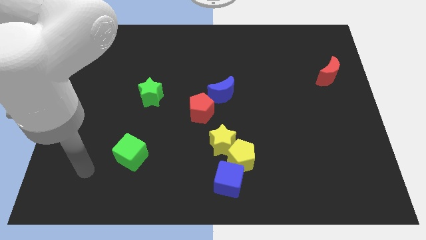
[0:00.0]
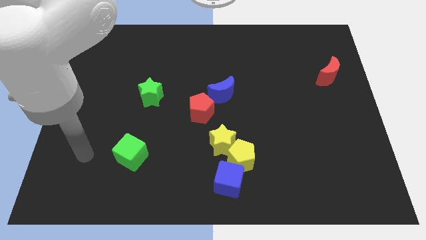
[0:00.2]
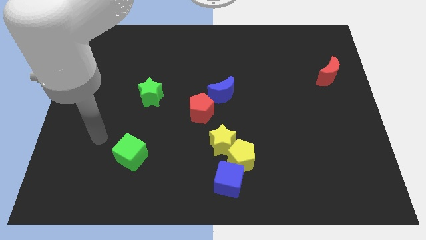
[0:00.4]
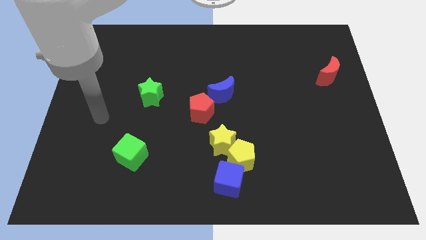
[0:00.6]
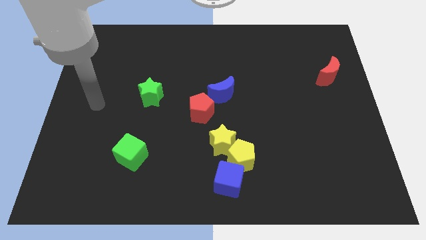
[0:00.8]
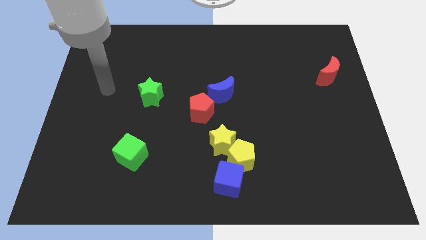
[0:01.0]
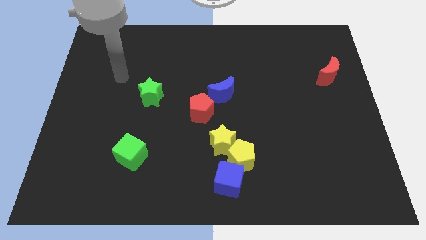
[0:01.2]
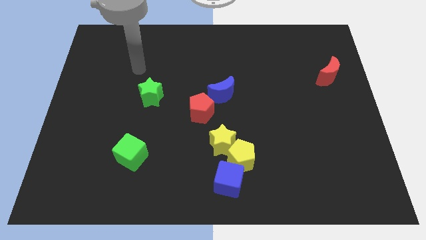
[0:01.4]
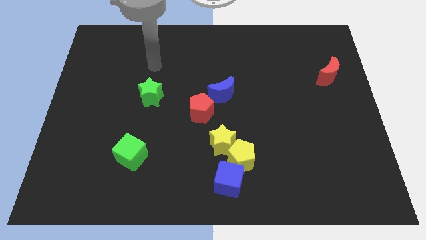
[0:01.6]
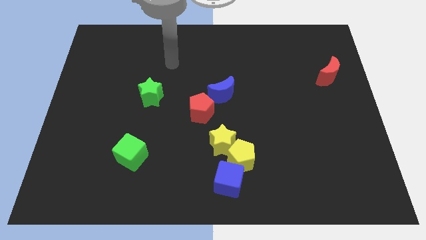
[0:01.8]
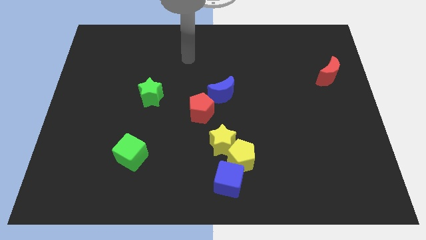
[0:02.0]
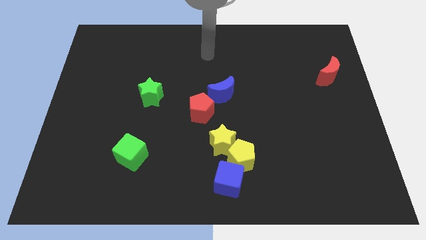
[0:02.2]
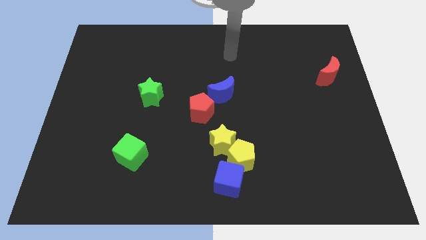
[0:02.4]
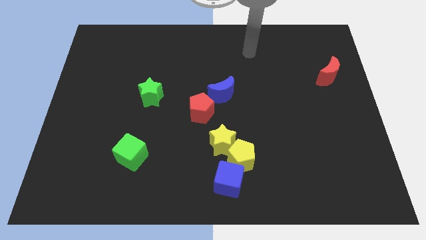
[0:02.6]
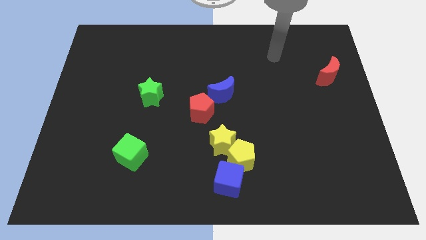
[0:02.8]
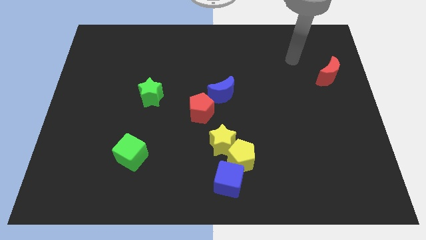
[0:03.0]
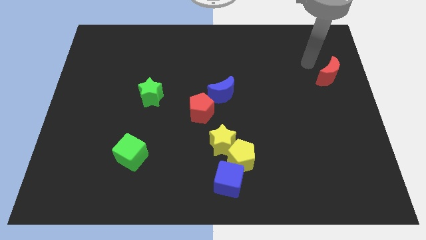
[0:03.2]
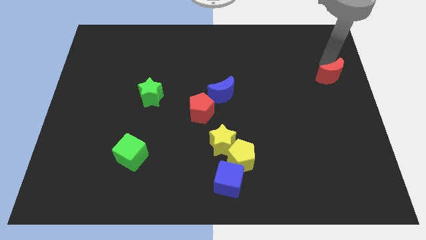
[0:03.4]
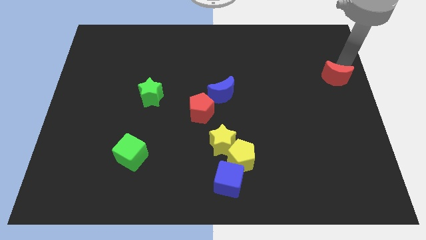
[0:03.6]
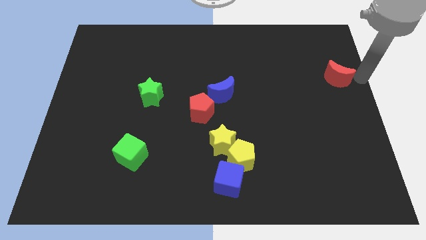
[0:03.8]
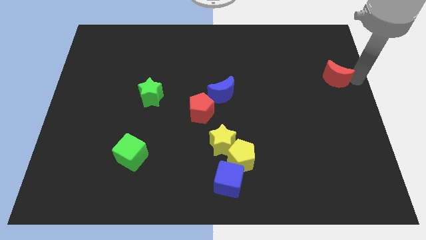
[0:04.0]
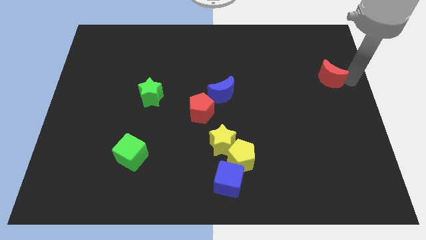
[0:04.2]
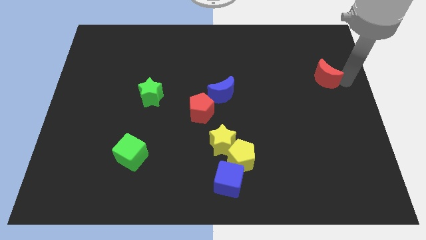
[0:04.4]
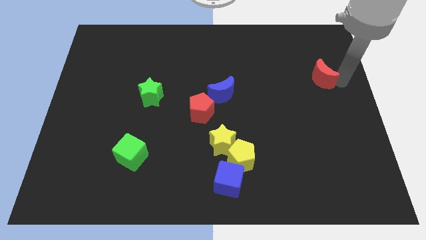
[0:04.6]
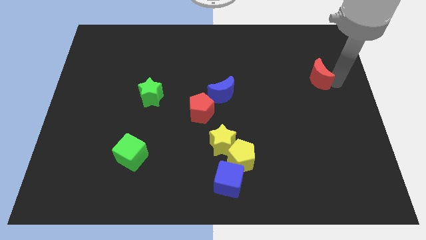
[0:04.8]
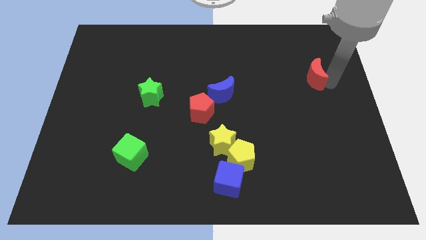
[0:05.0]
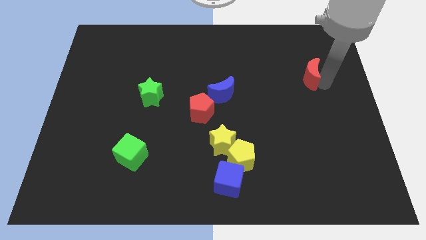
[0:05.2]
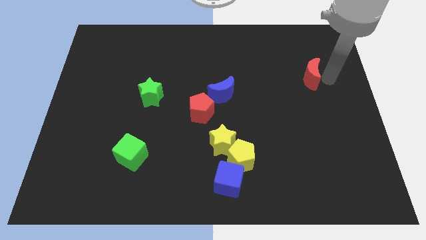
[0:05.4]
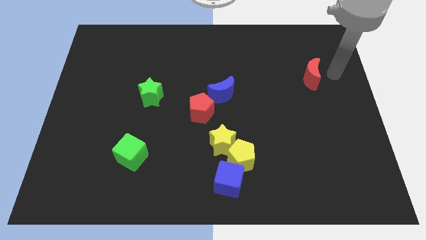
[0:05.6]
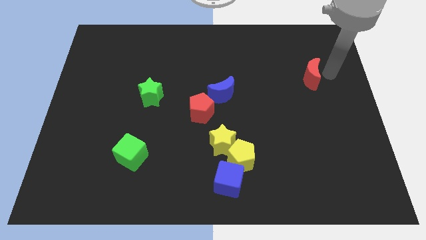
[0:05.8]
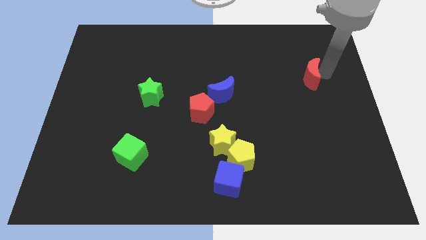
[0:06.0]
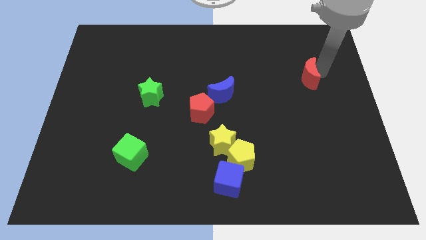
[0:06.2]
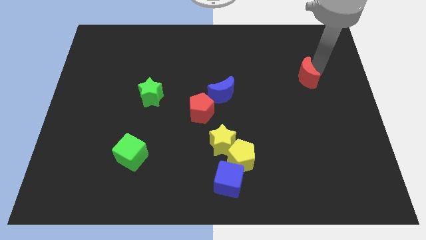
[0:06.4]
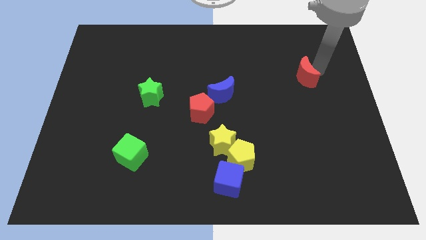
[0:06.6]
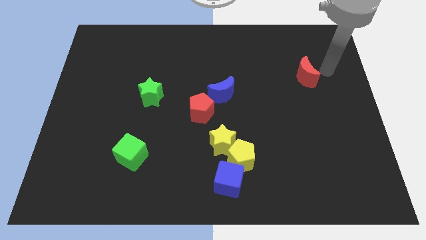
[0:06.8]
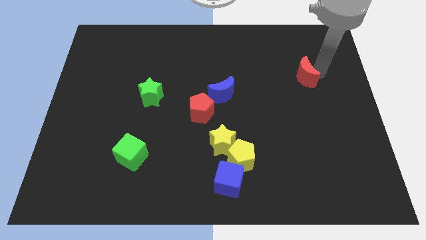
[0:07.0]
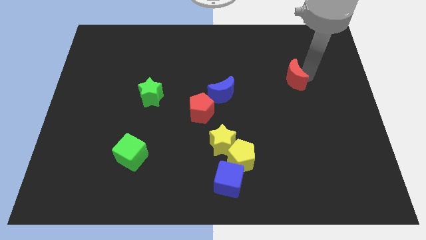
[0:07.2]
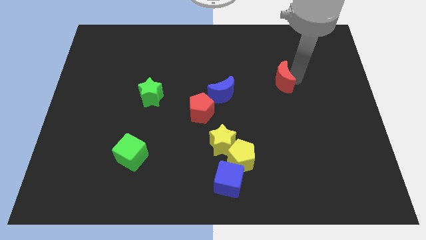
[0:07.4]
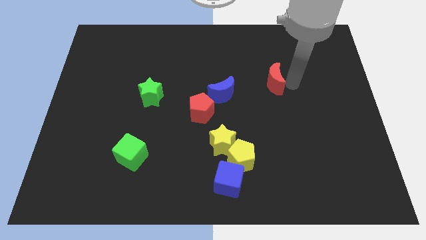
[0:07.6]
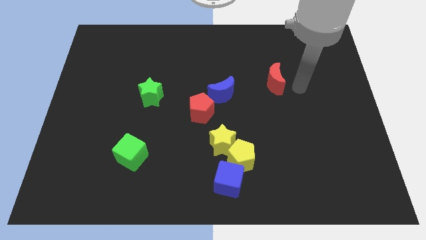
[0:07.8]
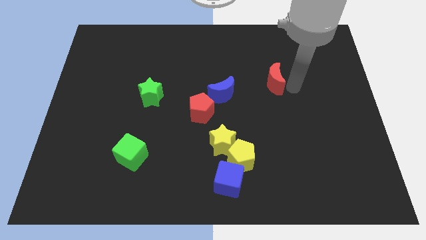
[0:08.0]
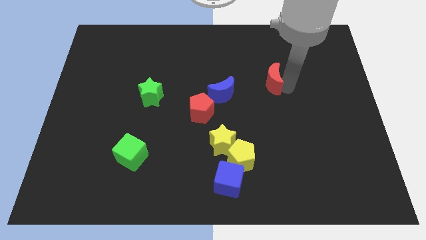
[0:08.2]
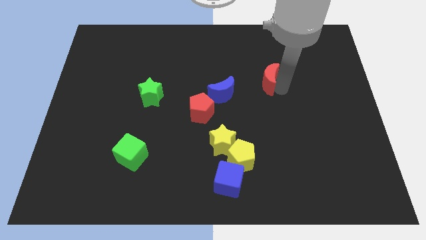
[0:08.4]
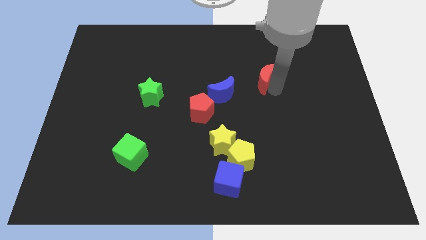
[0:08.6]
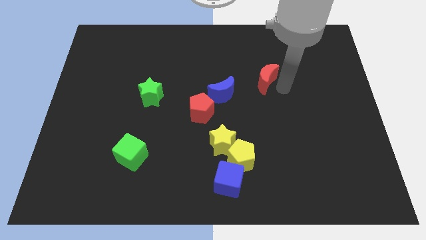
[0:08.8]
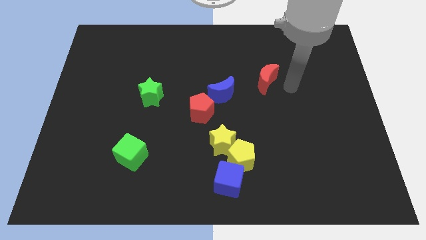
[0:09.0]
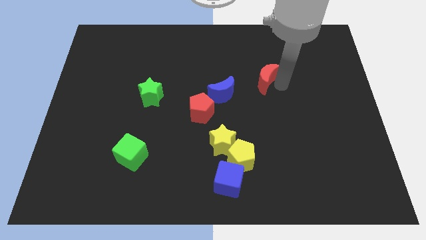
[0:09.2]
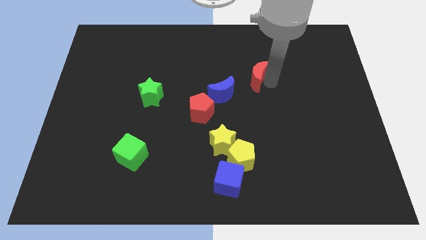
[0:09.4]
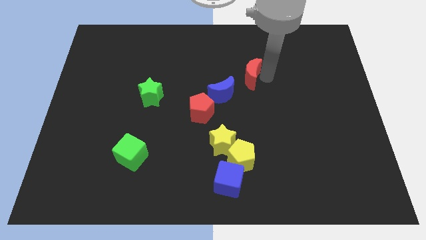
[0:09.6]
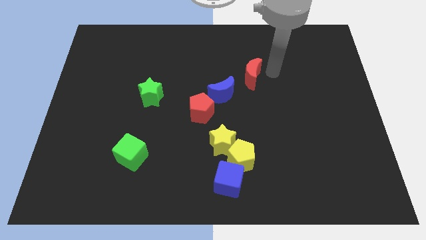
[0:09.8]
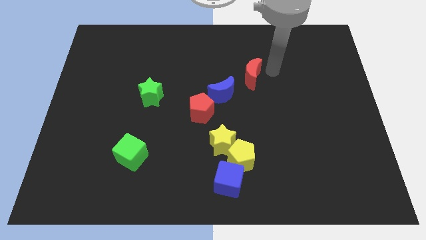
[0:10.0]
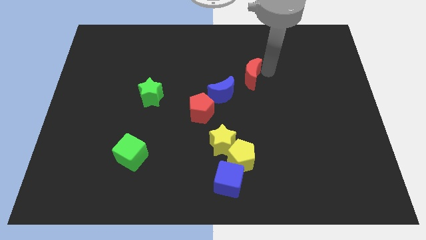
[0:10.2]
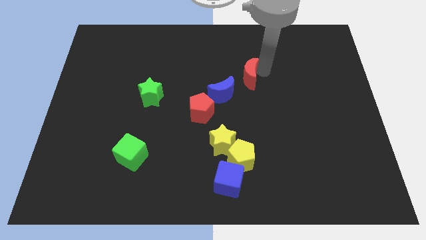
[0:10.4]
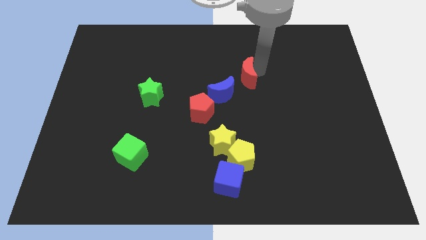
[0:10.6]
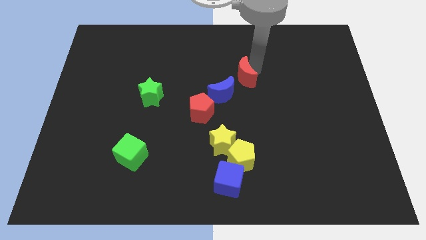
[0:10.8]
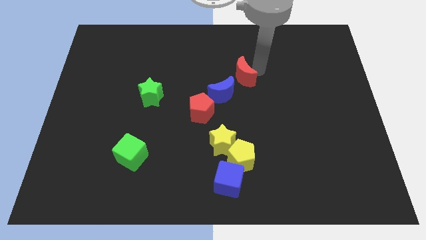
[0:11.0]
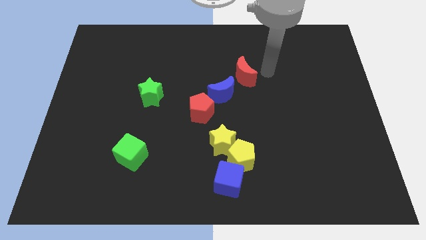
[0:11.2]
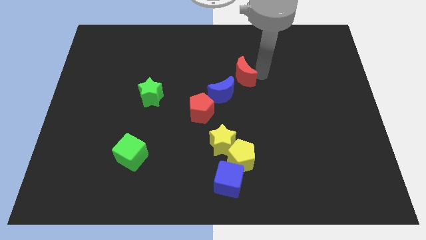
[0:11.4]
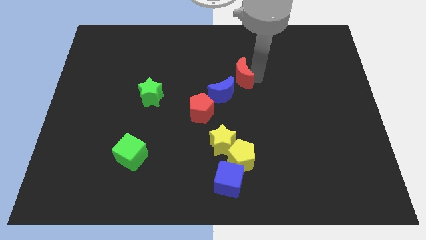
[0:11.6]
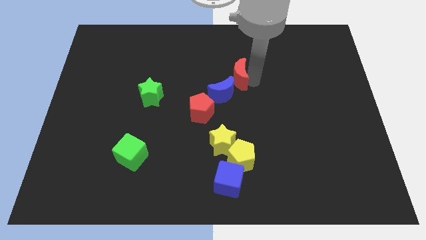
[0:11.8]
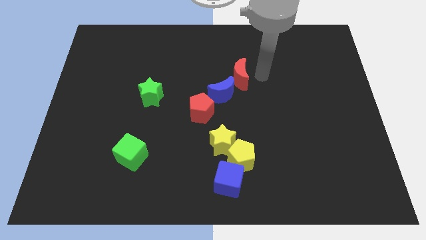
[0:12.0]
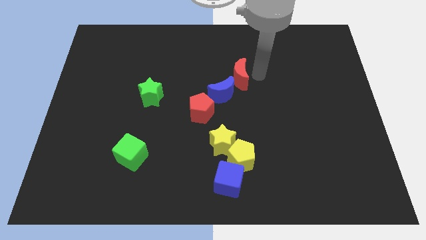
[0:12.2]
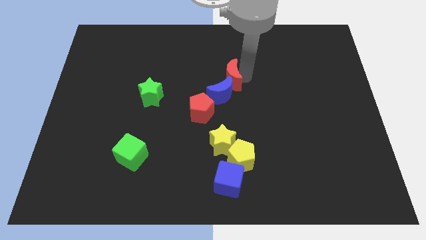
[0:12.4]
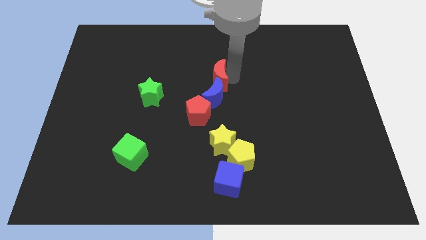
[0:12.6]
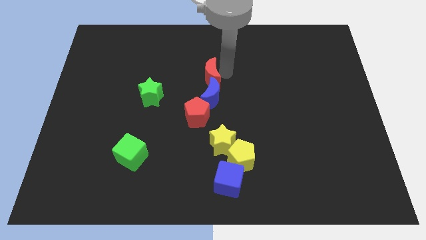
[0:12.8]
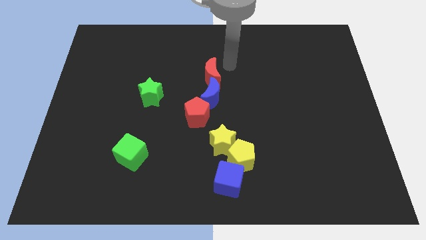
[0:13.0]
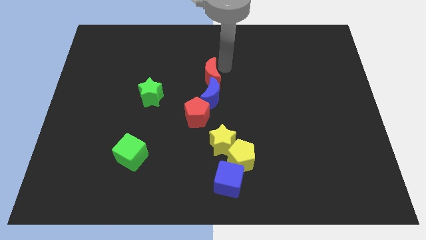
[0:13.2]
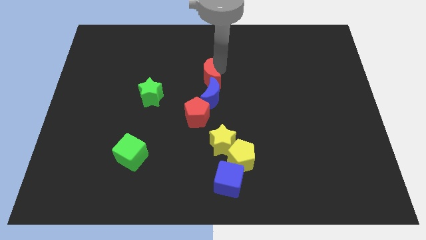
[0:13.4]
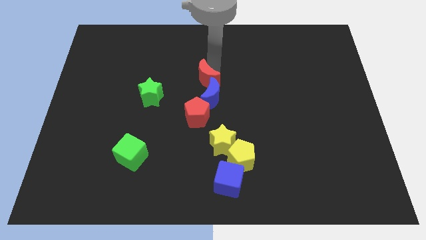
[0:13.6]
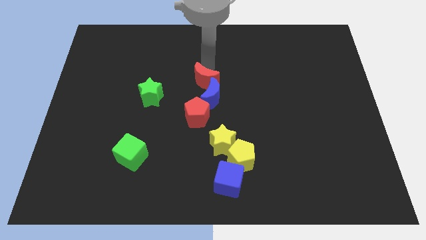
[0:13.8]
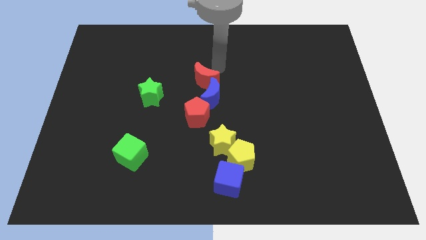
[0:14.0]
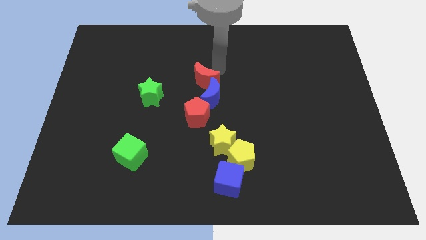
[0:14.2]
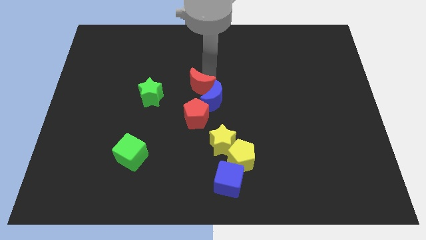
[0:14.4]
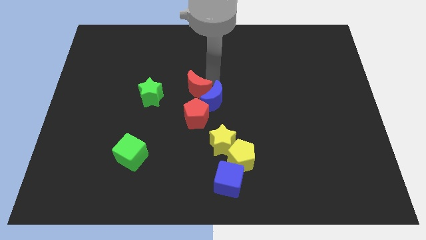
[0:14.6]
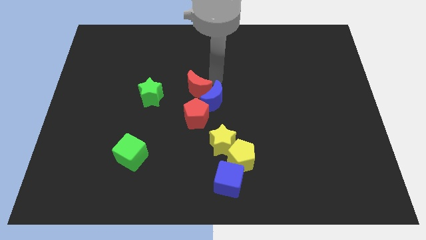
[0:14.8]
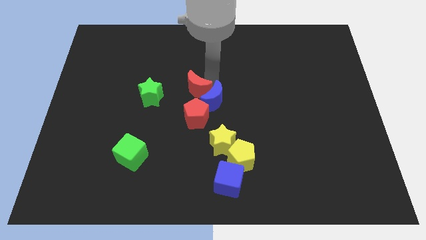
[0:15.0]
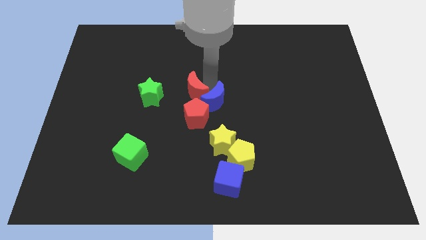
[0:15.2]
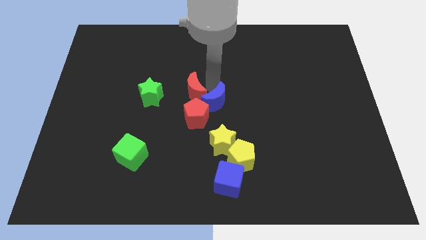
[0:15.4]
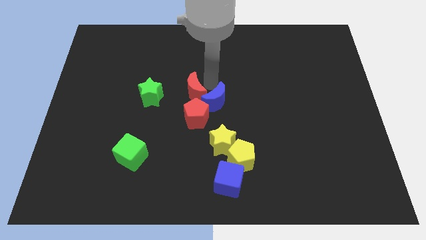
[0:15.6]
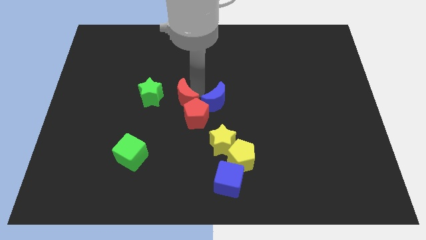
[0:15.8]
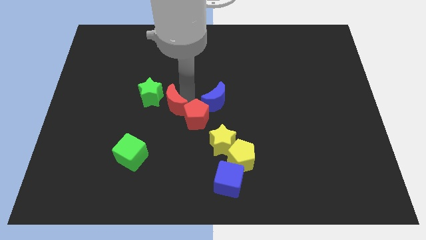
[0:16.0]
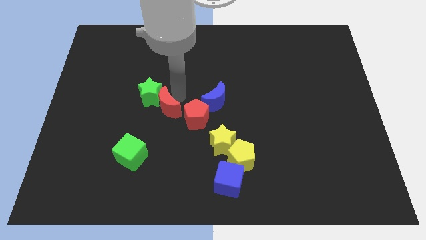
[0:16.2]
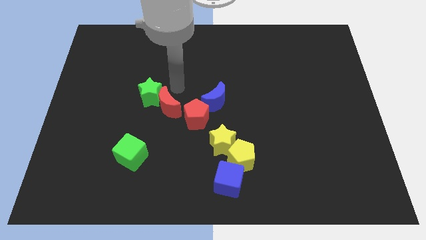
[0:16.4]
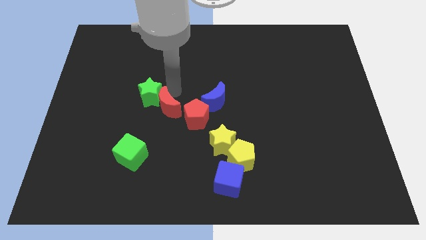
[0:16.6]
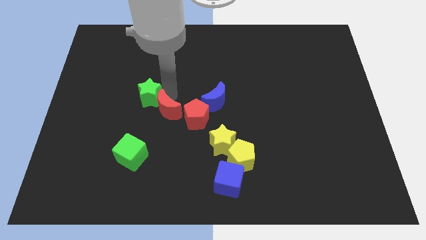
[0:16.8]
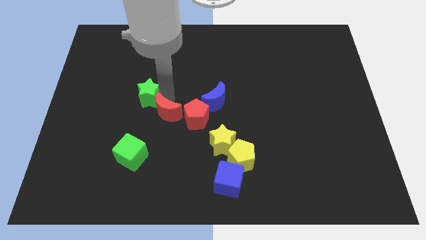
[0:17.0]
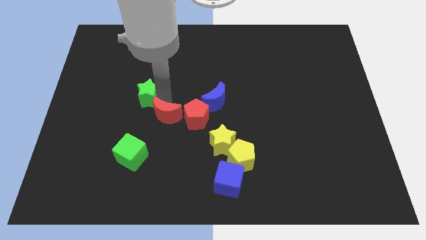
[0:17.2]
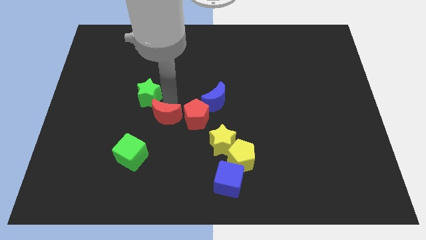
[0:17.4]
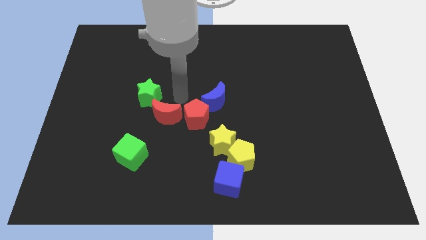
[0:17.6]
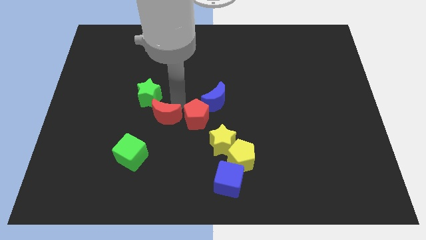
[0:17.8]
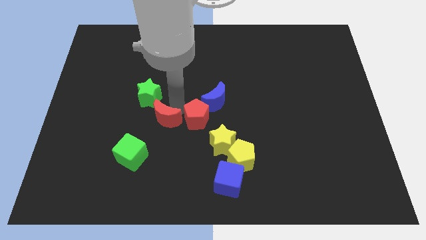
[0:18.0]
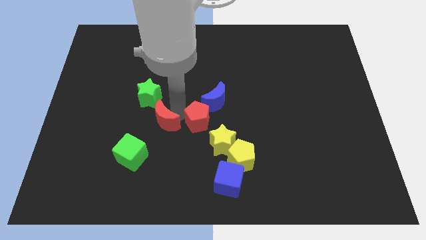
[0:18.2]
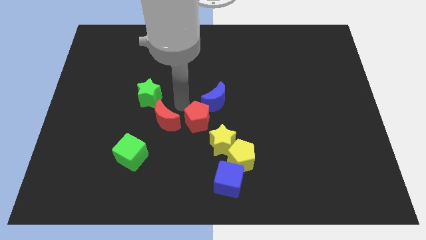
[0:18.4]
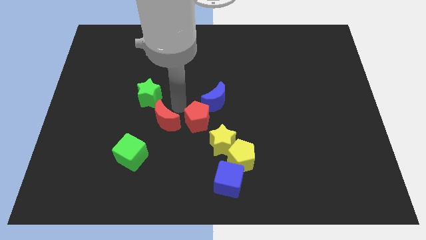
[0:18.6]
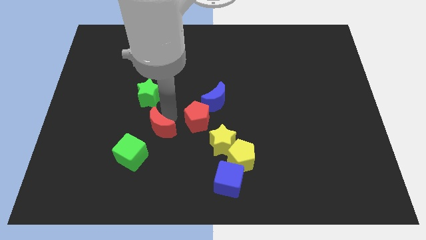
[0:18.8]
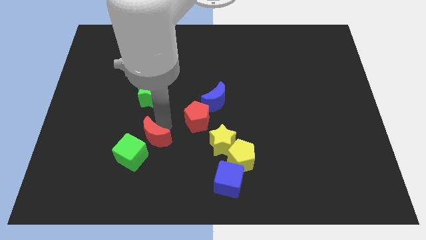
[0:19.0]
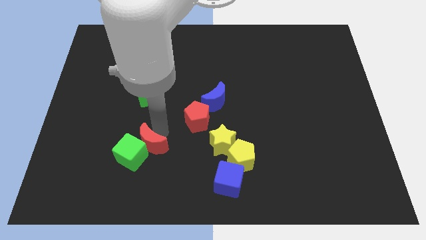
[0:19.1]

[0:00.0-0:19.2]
push the red moon to the green cube
